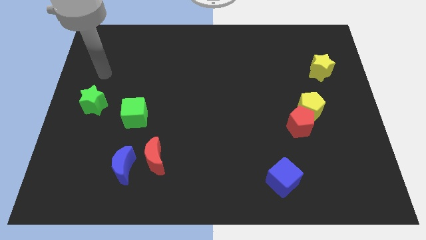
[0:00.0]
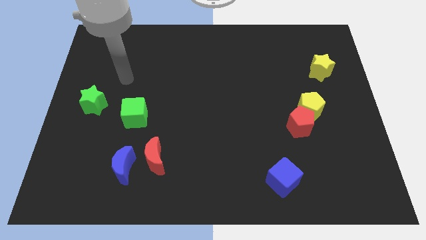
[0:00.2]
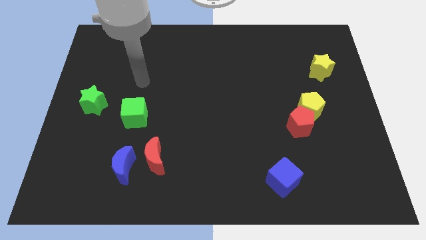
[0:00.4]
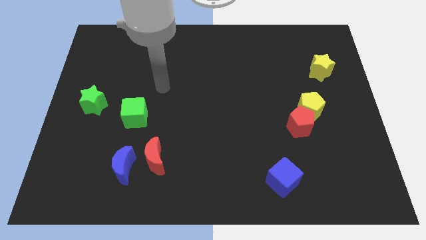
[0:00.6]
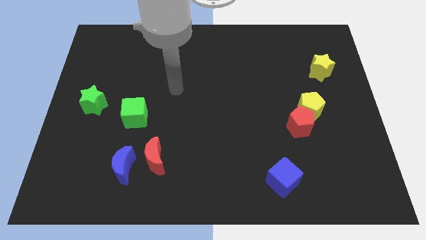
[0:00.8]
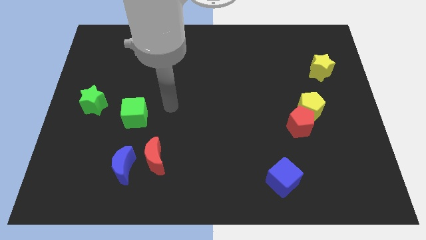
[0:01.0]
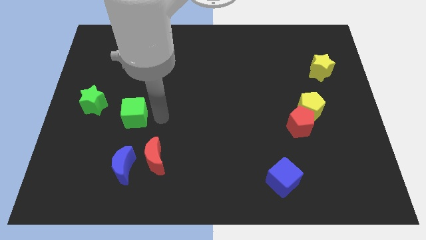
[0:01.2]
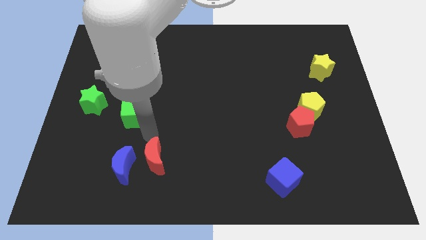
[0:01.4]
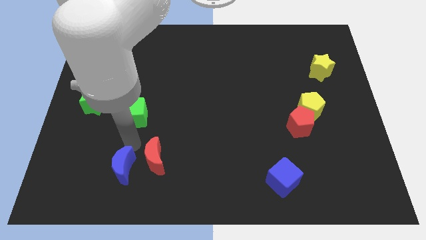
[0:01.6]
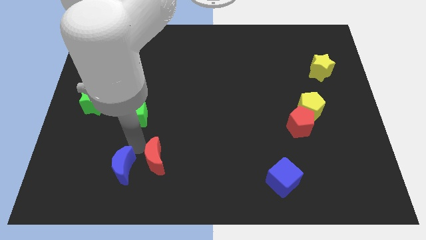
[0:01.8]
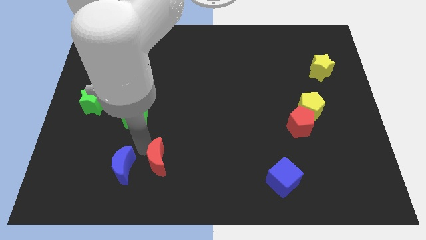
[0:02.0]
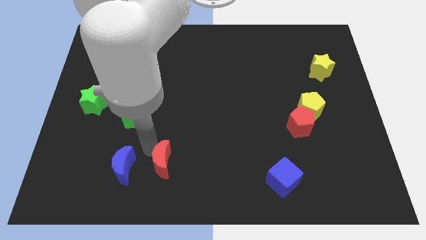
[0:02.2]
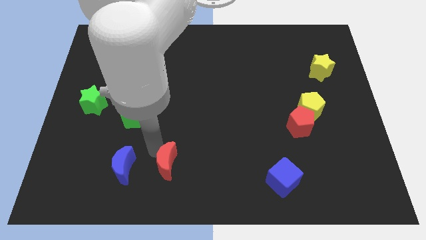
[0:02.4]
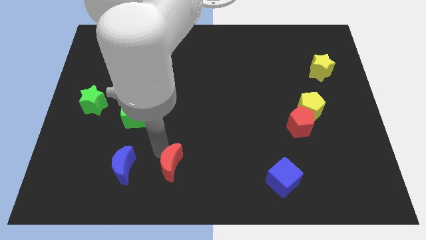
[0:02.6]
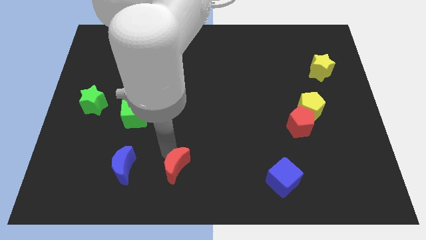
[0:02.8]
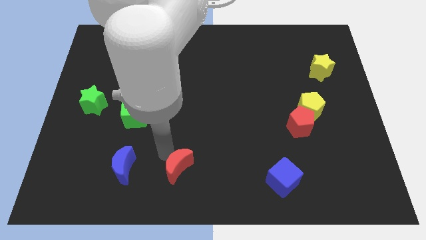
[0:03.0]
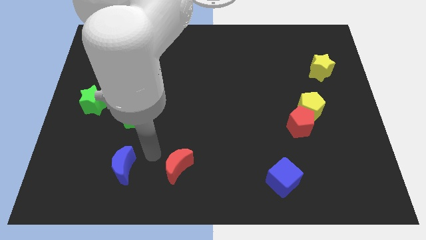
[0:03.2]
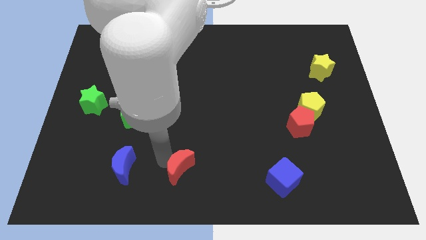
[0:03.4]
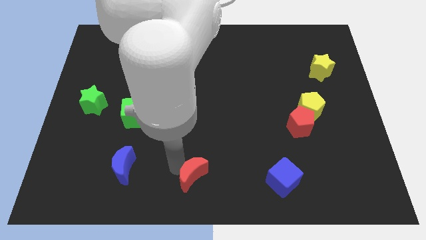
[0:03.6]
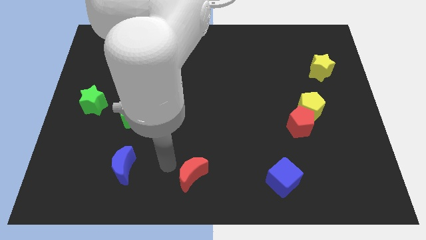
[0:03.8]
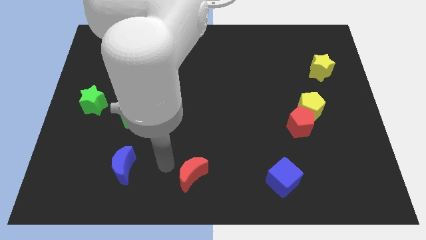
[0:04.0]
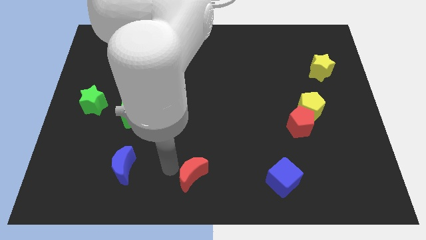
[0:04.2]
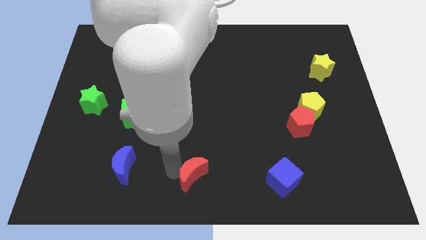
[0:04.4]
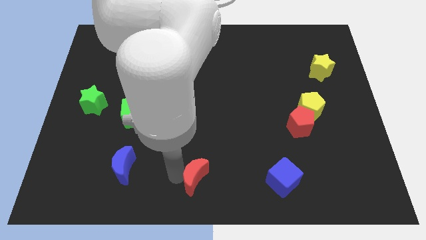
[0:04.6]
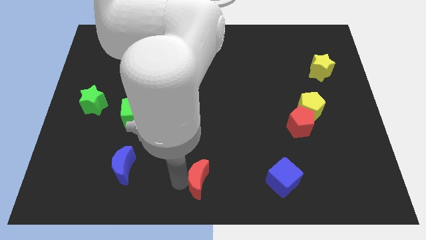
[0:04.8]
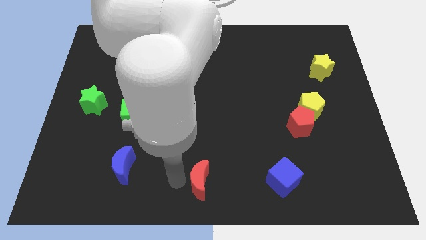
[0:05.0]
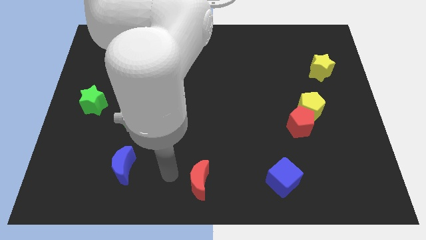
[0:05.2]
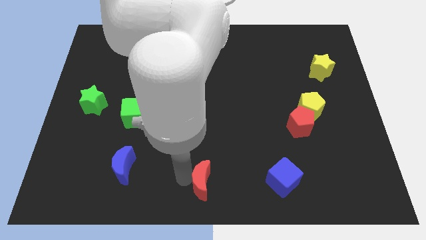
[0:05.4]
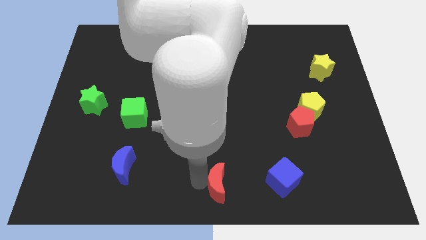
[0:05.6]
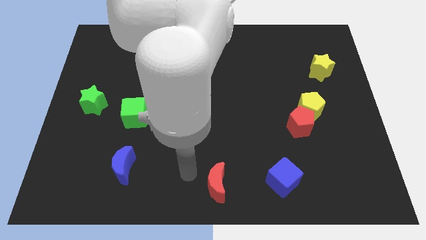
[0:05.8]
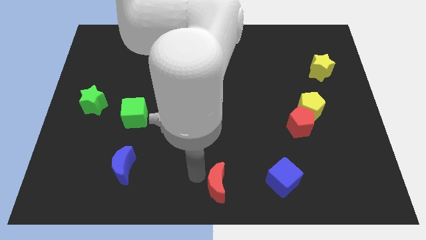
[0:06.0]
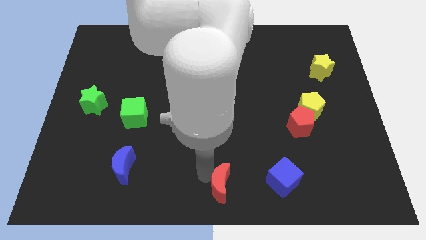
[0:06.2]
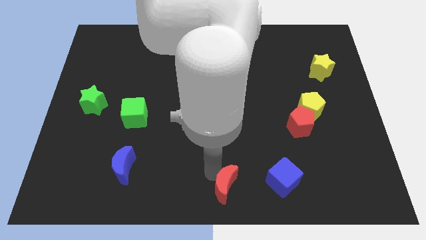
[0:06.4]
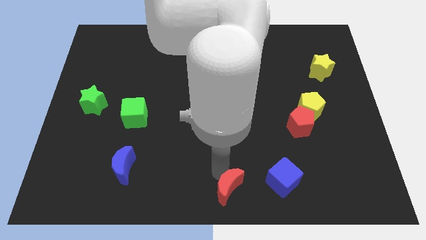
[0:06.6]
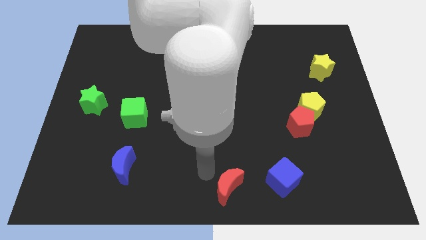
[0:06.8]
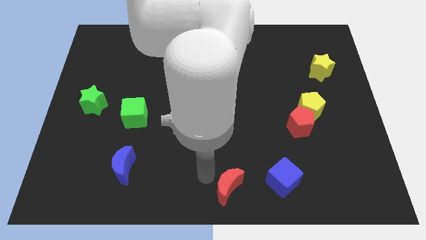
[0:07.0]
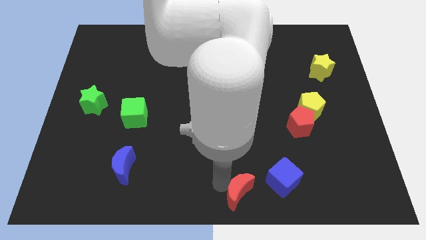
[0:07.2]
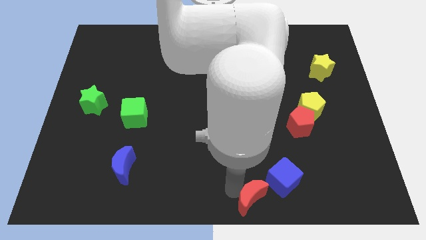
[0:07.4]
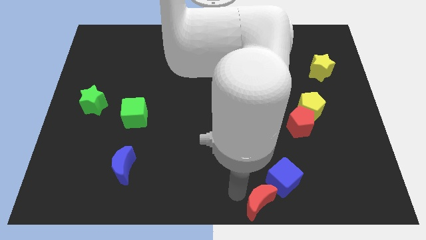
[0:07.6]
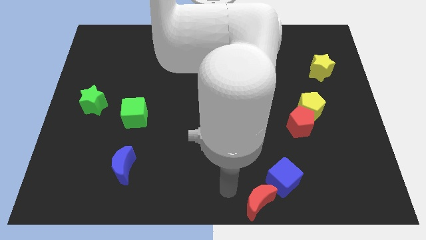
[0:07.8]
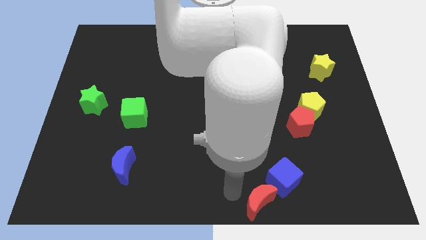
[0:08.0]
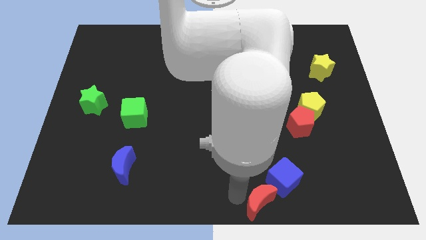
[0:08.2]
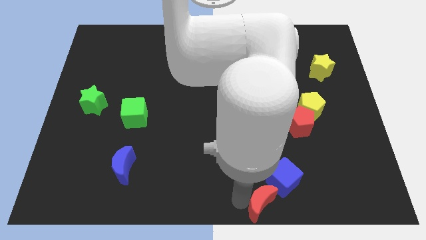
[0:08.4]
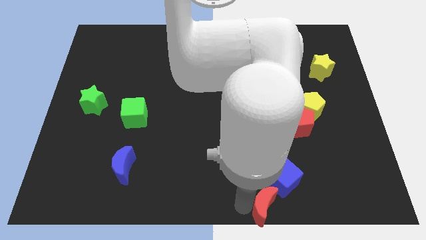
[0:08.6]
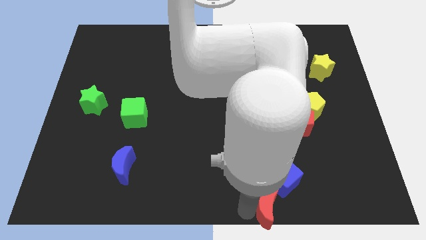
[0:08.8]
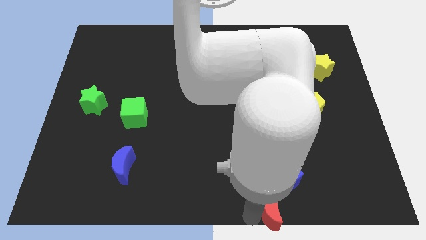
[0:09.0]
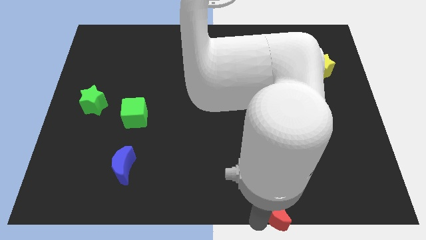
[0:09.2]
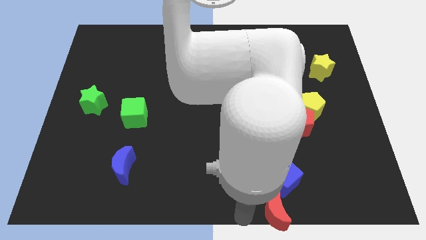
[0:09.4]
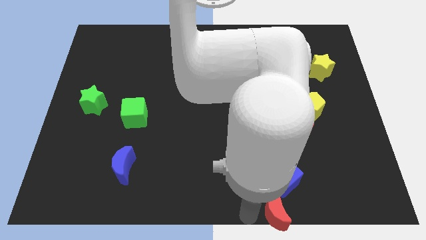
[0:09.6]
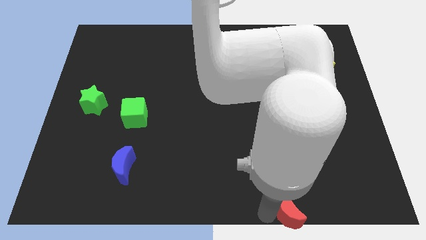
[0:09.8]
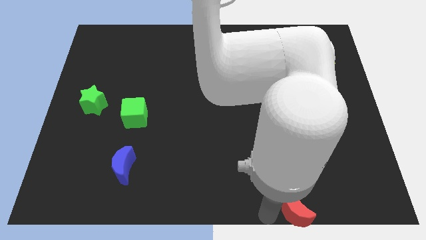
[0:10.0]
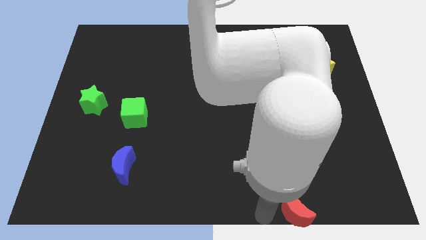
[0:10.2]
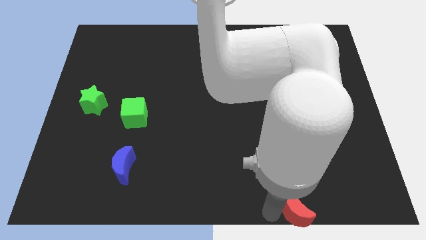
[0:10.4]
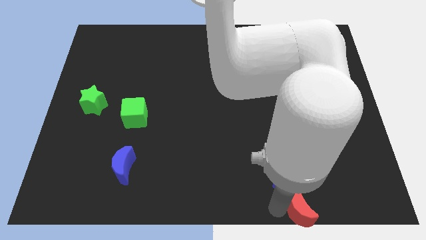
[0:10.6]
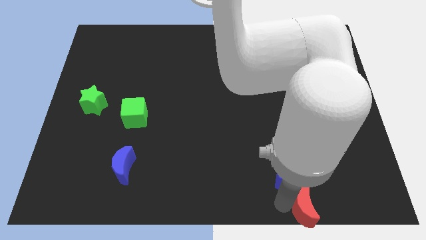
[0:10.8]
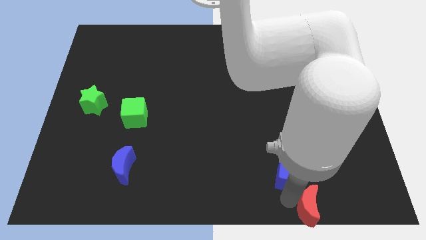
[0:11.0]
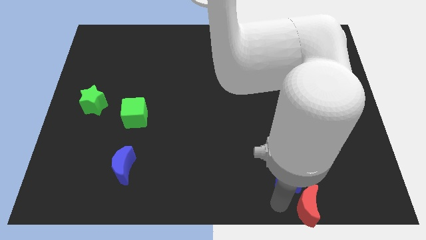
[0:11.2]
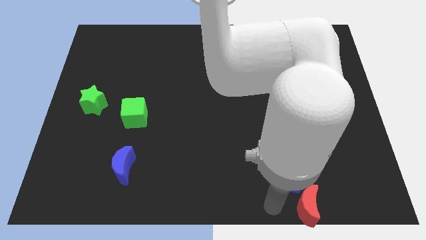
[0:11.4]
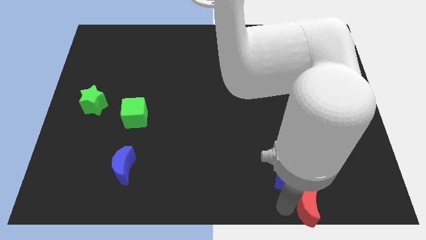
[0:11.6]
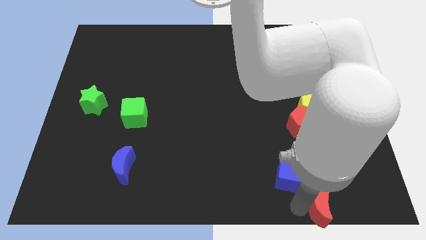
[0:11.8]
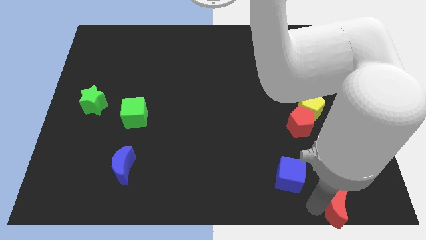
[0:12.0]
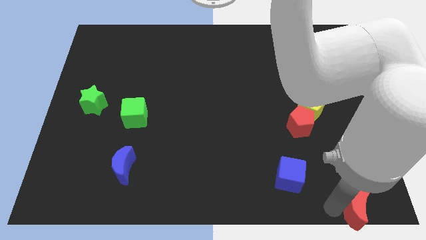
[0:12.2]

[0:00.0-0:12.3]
move the red moon to the lower right corner

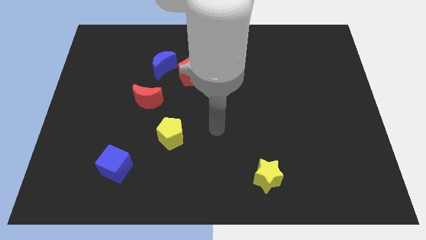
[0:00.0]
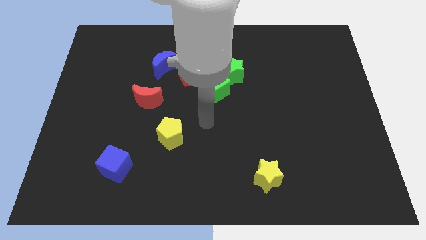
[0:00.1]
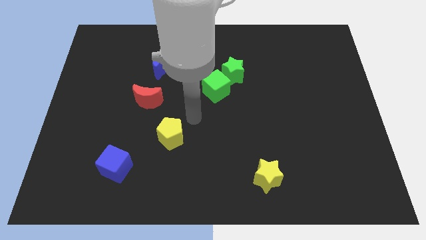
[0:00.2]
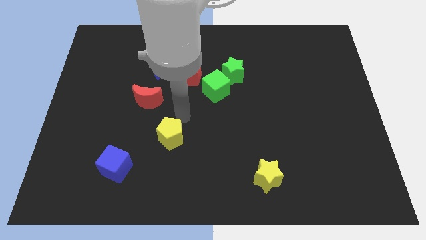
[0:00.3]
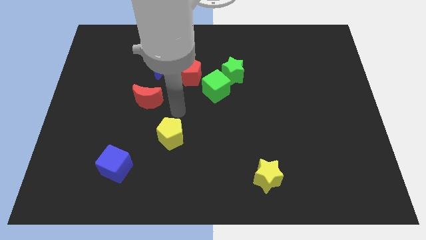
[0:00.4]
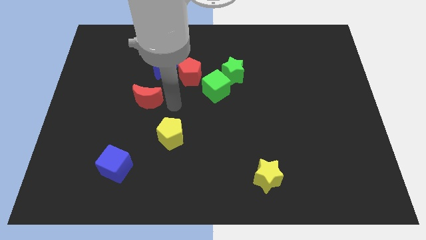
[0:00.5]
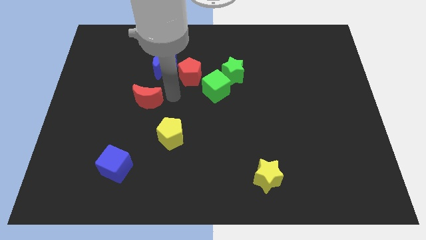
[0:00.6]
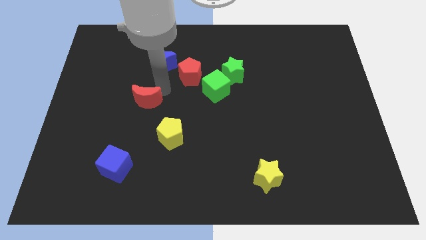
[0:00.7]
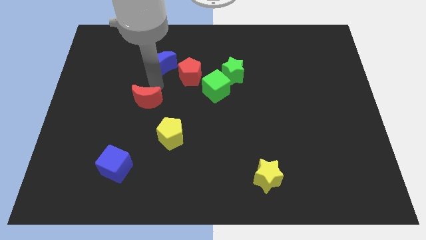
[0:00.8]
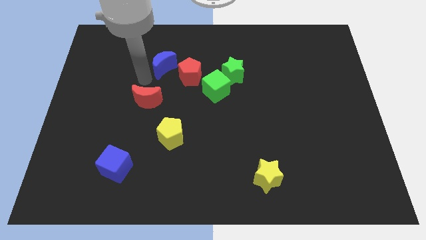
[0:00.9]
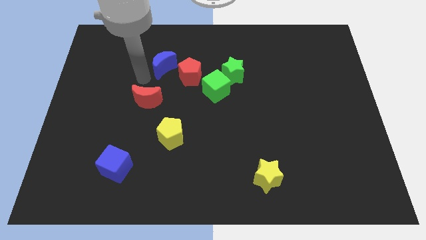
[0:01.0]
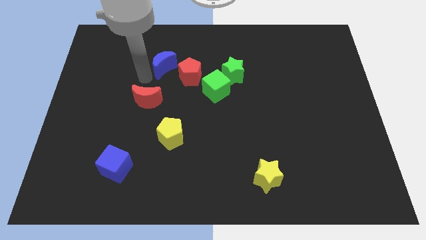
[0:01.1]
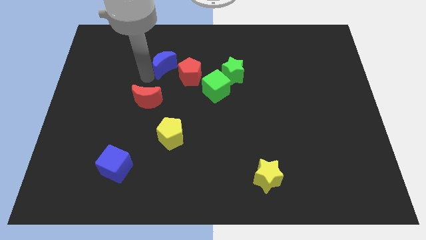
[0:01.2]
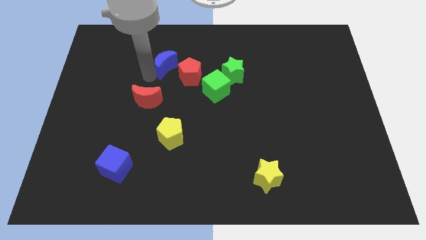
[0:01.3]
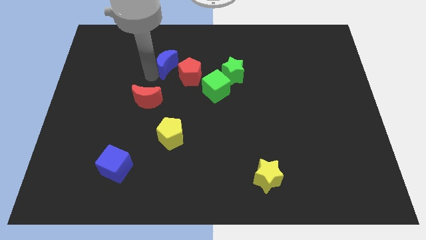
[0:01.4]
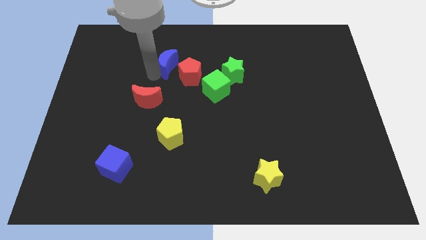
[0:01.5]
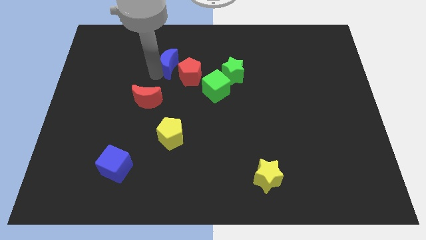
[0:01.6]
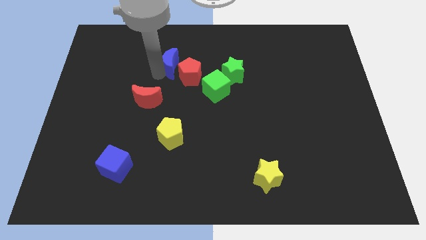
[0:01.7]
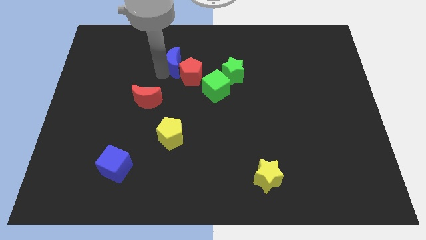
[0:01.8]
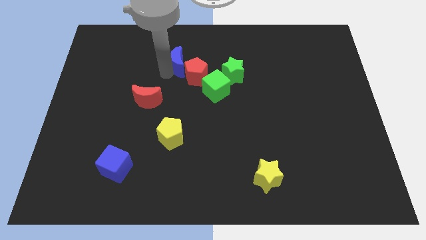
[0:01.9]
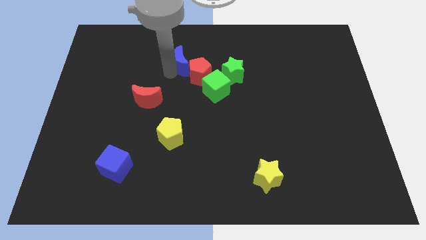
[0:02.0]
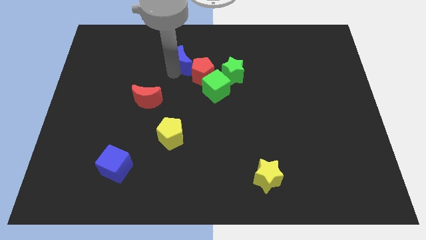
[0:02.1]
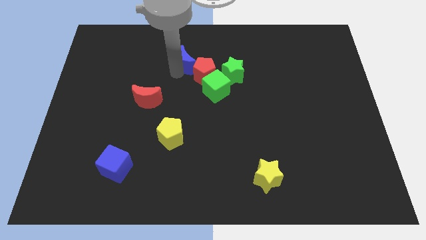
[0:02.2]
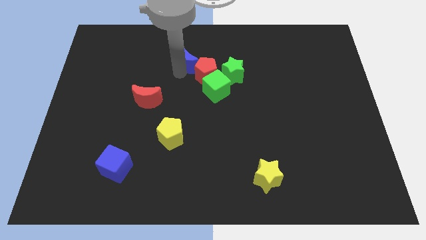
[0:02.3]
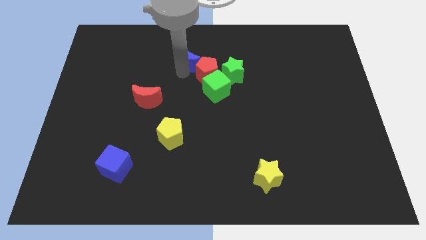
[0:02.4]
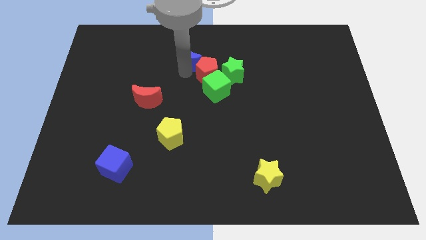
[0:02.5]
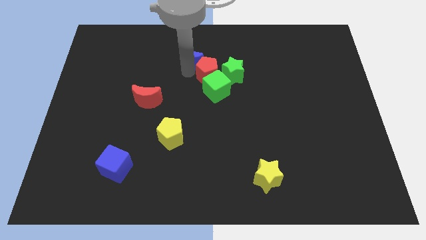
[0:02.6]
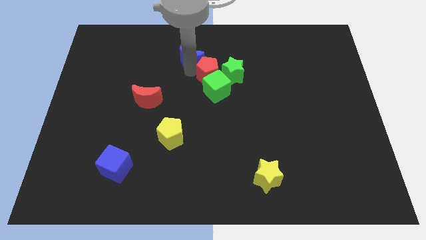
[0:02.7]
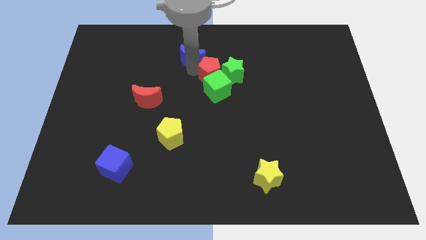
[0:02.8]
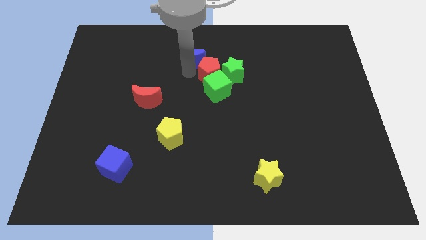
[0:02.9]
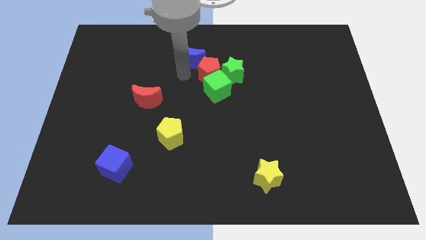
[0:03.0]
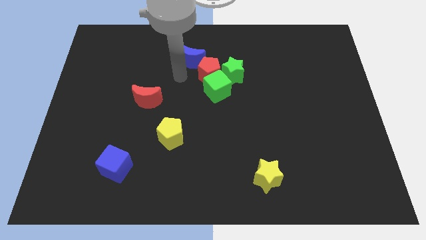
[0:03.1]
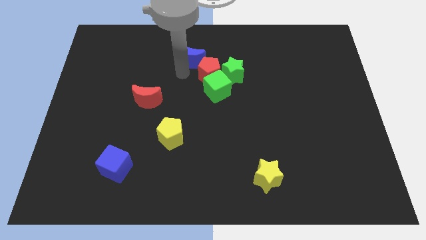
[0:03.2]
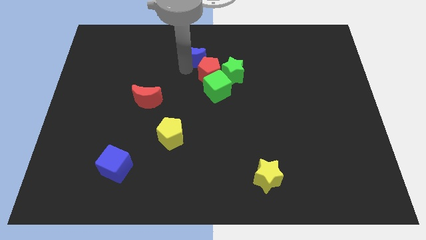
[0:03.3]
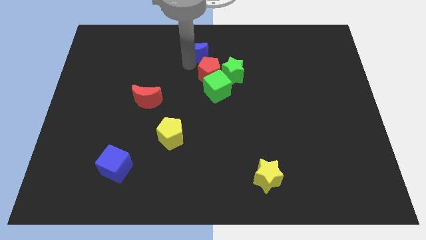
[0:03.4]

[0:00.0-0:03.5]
put the blue moon to the top
